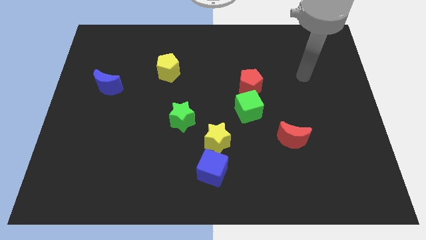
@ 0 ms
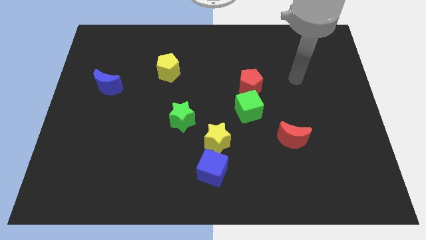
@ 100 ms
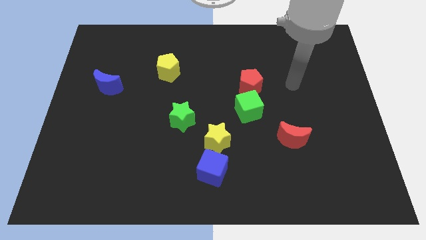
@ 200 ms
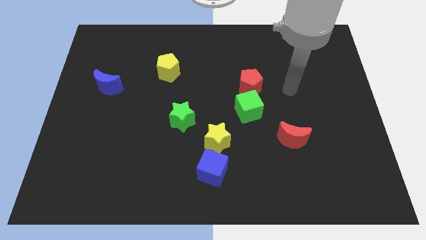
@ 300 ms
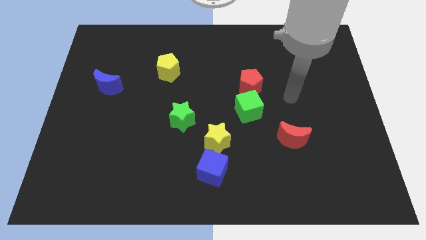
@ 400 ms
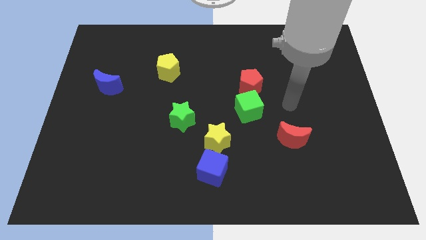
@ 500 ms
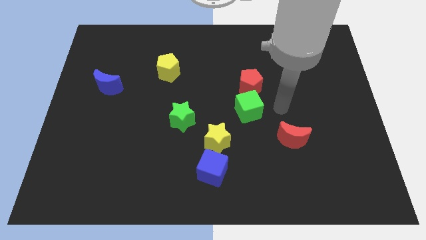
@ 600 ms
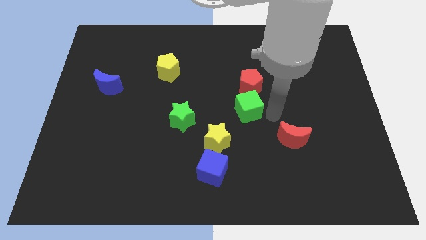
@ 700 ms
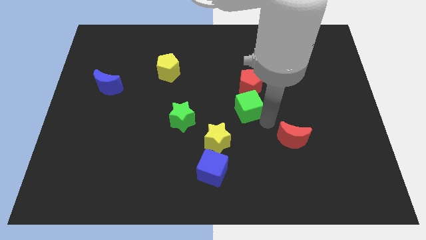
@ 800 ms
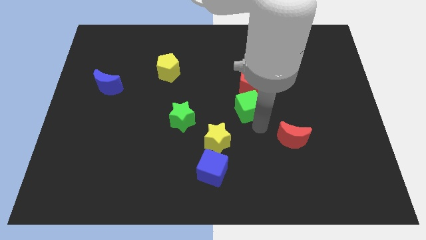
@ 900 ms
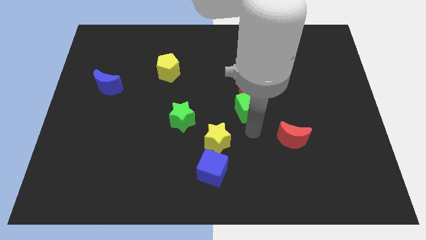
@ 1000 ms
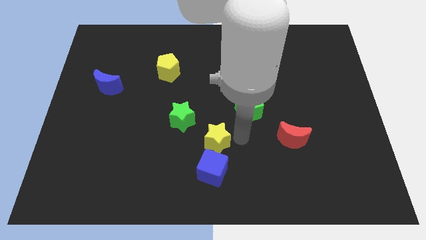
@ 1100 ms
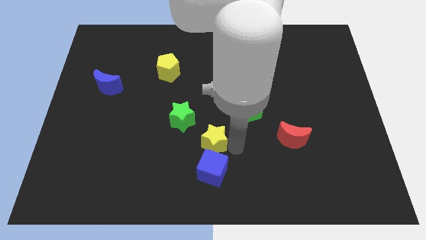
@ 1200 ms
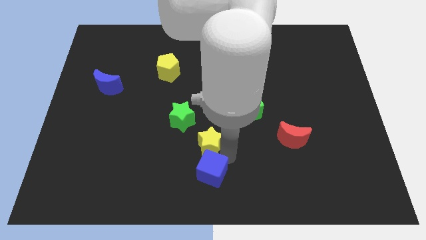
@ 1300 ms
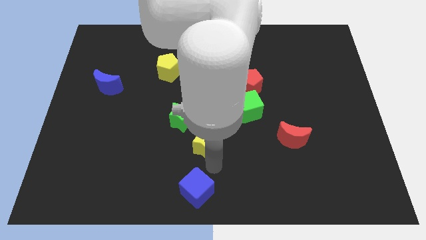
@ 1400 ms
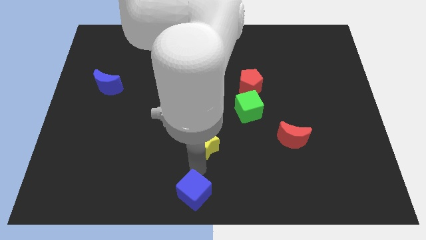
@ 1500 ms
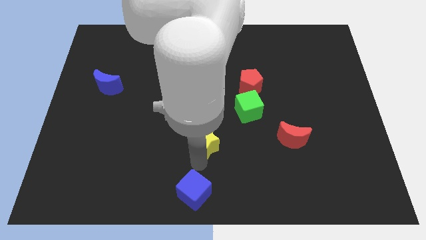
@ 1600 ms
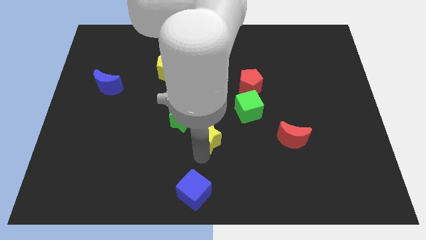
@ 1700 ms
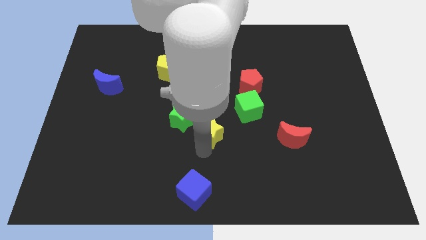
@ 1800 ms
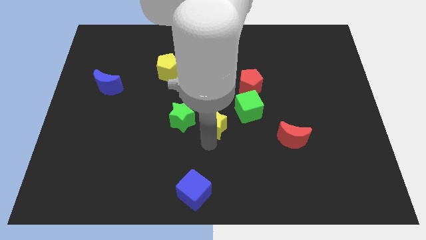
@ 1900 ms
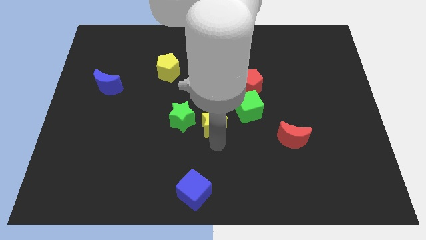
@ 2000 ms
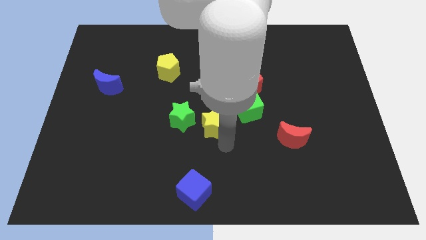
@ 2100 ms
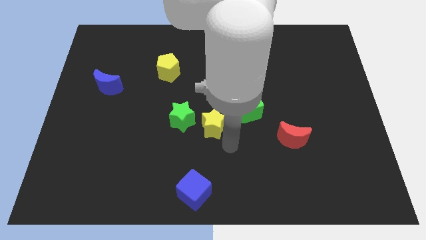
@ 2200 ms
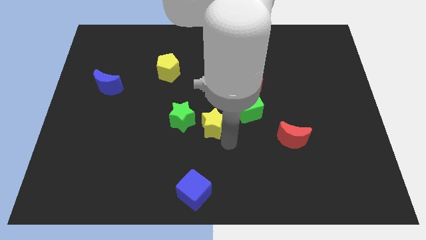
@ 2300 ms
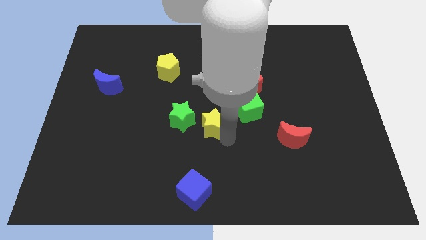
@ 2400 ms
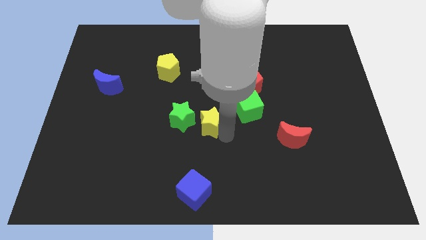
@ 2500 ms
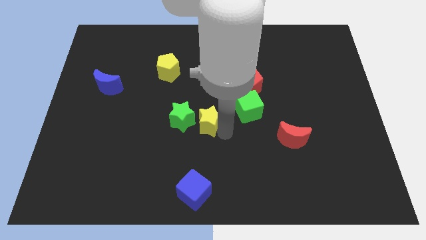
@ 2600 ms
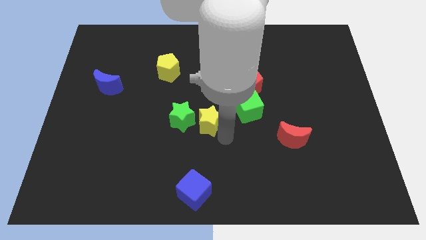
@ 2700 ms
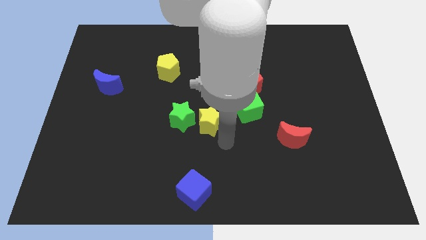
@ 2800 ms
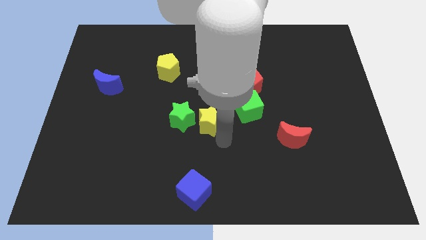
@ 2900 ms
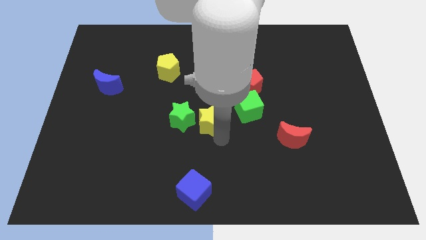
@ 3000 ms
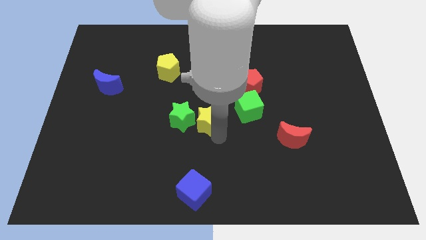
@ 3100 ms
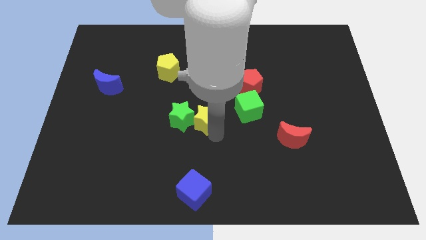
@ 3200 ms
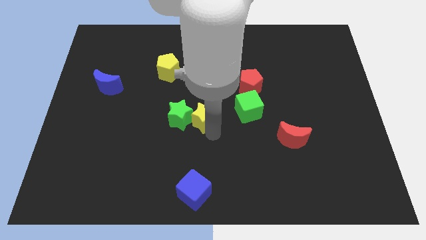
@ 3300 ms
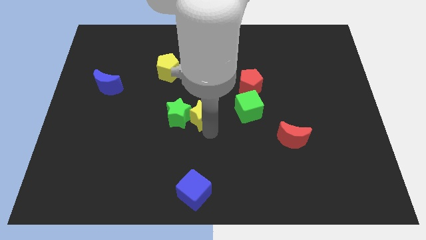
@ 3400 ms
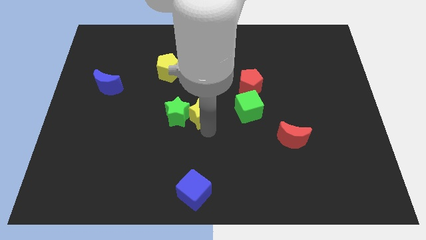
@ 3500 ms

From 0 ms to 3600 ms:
slightly slide the yellow star diagonally upwards and to the left

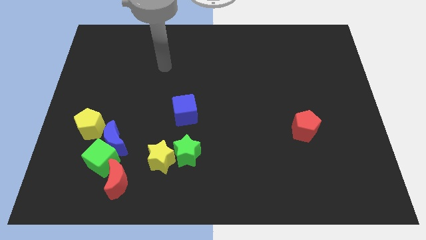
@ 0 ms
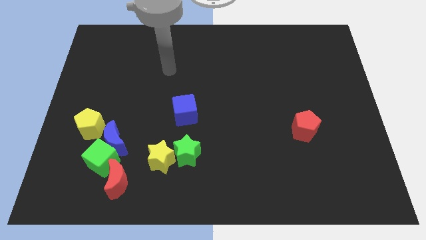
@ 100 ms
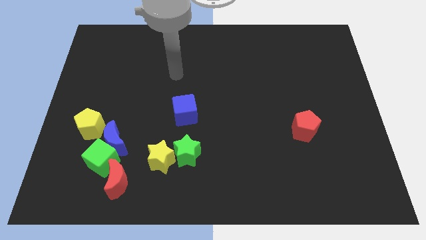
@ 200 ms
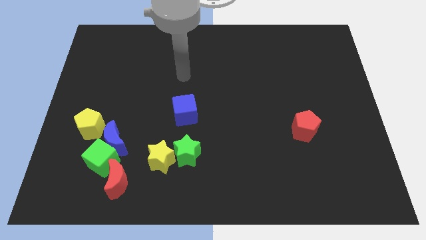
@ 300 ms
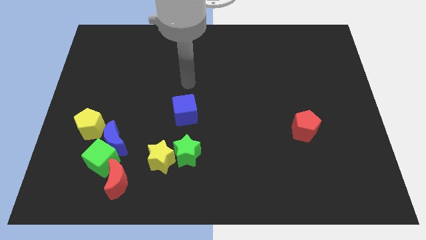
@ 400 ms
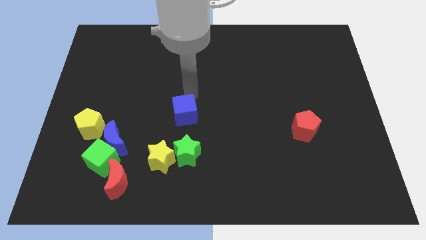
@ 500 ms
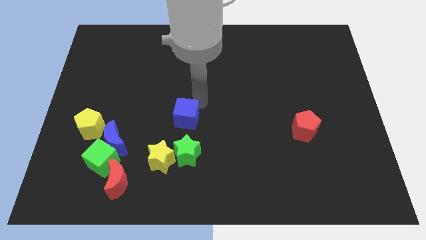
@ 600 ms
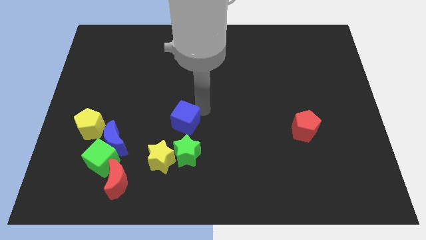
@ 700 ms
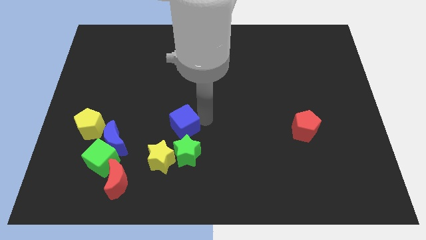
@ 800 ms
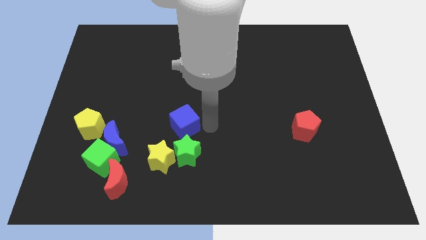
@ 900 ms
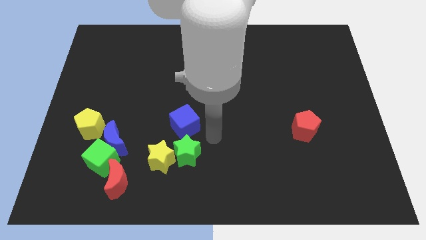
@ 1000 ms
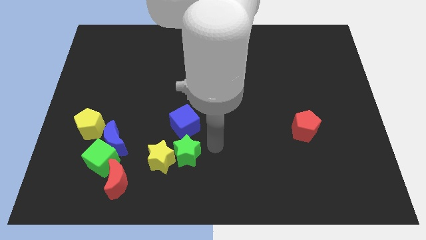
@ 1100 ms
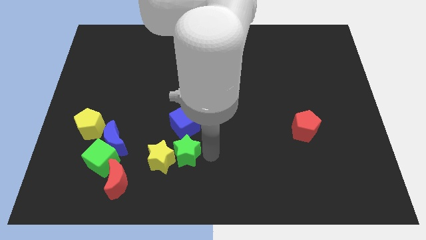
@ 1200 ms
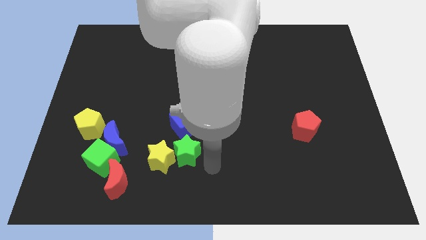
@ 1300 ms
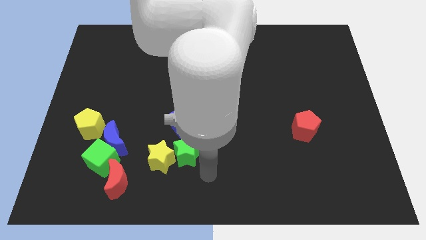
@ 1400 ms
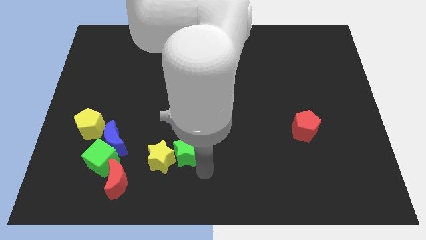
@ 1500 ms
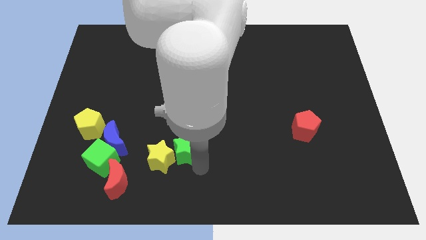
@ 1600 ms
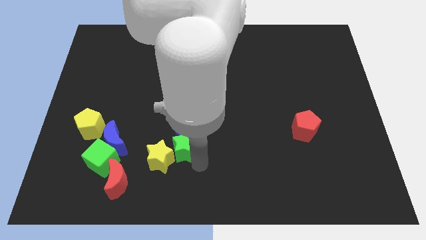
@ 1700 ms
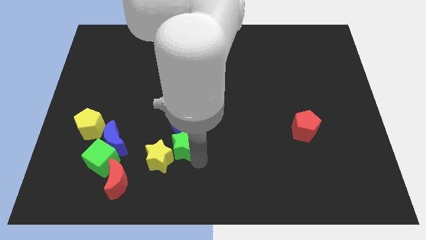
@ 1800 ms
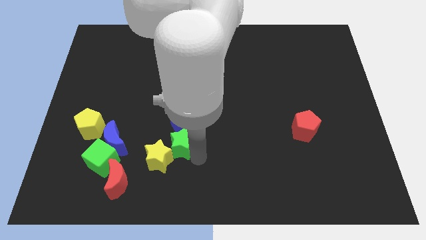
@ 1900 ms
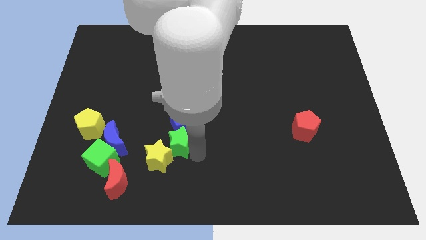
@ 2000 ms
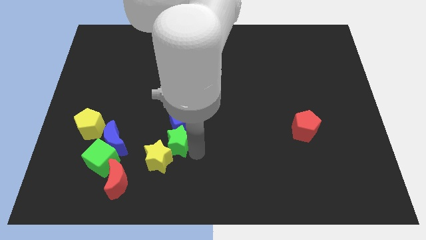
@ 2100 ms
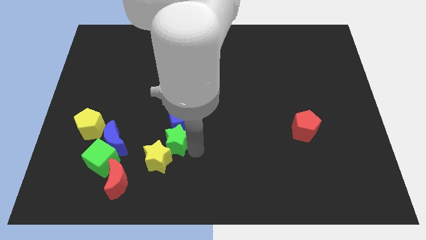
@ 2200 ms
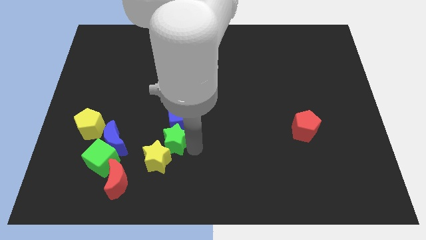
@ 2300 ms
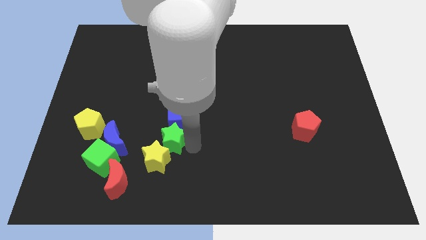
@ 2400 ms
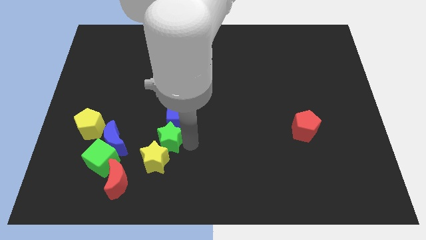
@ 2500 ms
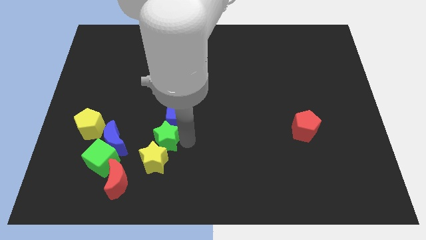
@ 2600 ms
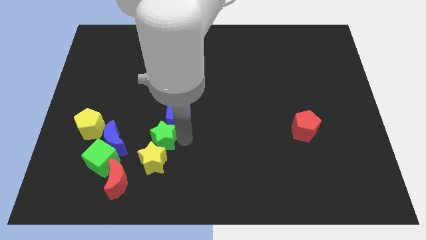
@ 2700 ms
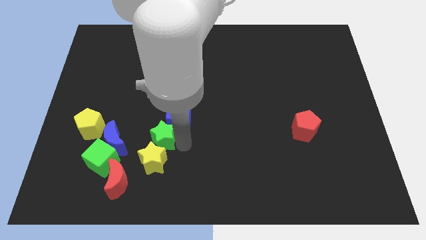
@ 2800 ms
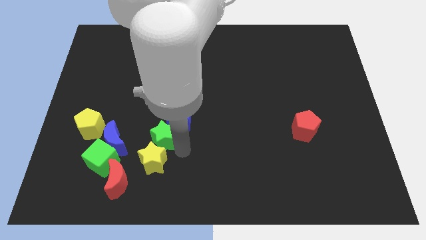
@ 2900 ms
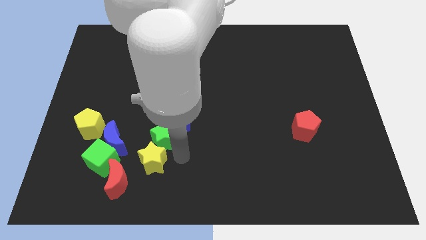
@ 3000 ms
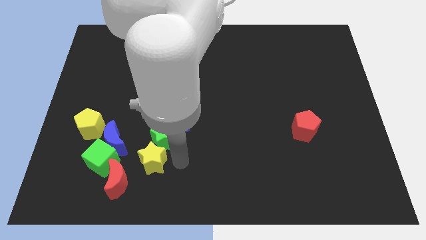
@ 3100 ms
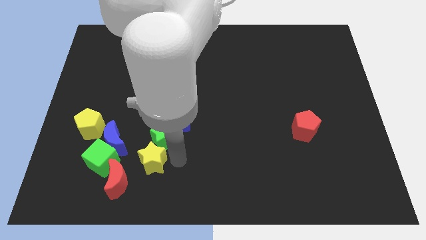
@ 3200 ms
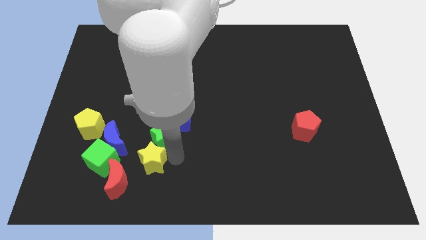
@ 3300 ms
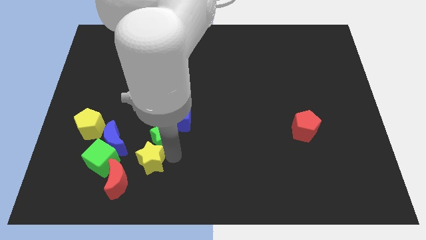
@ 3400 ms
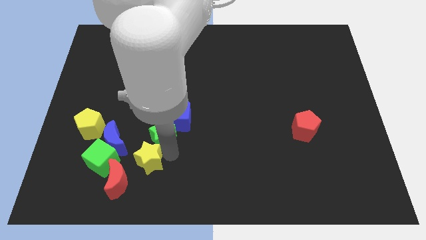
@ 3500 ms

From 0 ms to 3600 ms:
slightly move the green star diagonally upwards and to the left

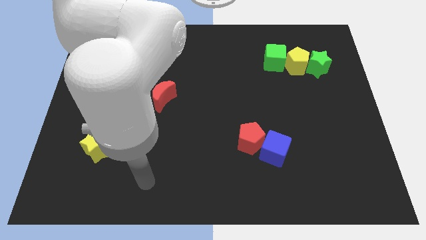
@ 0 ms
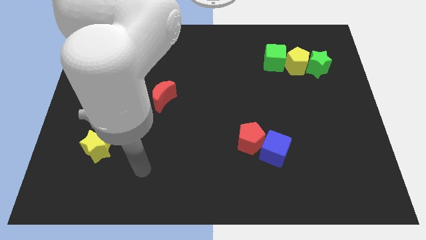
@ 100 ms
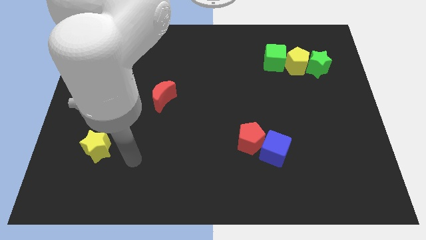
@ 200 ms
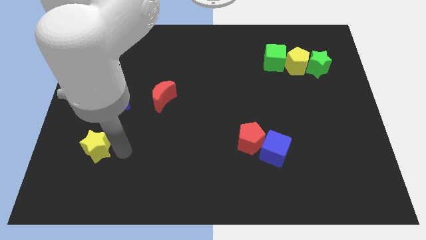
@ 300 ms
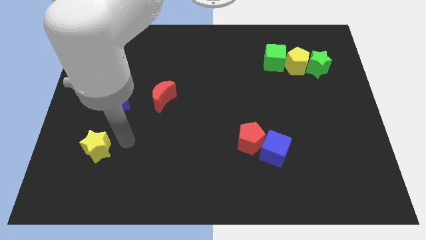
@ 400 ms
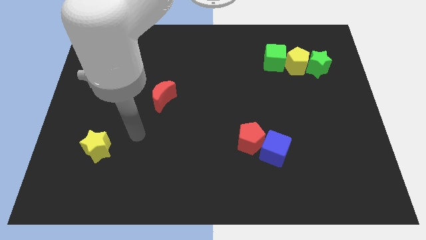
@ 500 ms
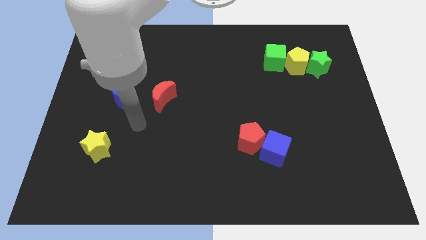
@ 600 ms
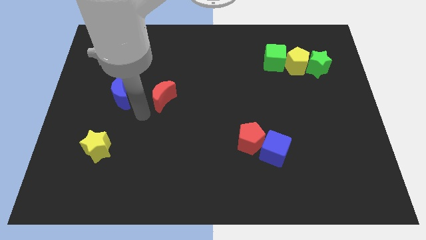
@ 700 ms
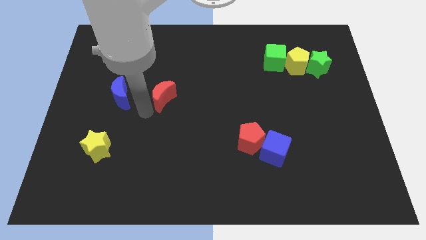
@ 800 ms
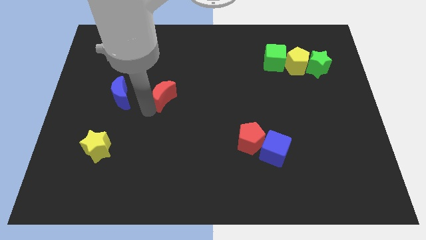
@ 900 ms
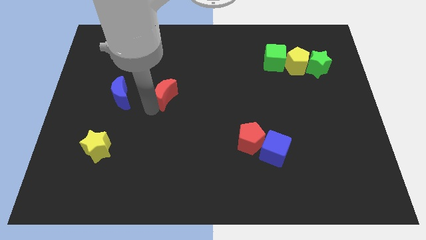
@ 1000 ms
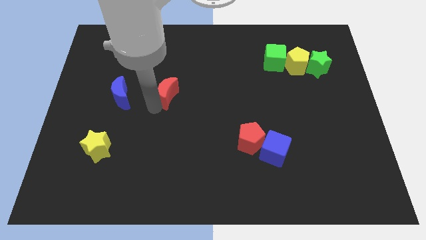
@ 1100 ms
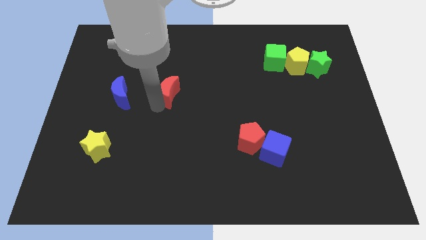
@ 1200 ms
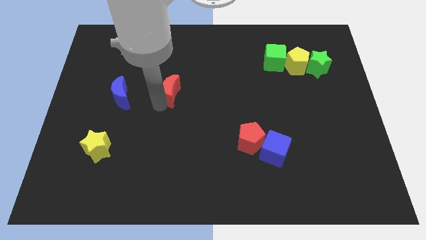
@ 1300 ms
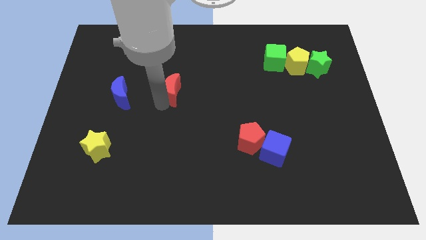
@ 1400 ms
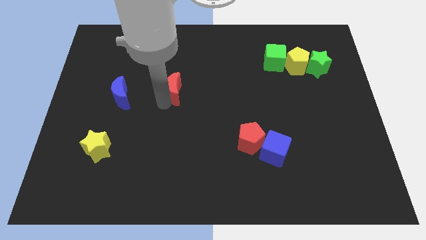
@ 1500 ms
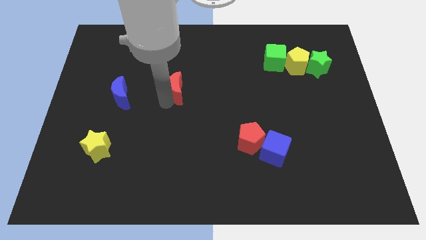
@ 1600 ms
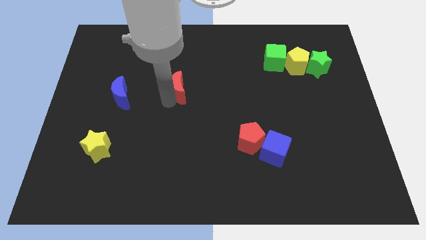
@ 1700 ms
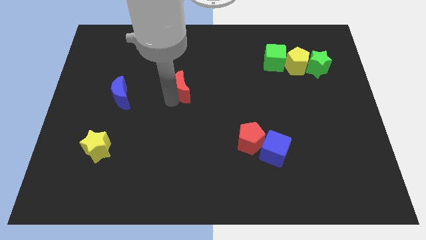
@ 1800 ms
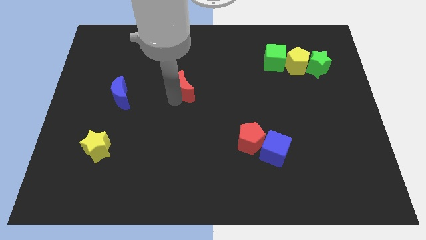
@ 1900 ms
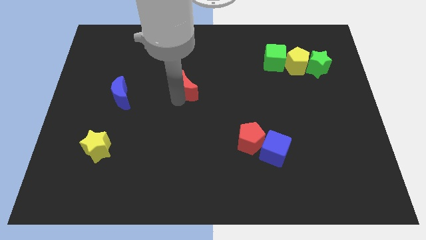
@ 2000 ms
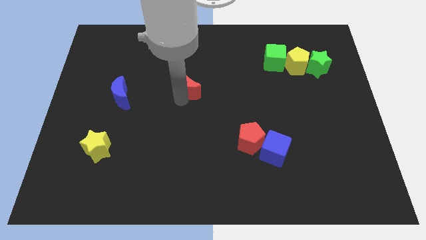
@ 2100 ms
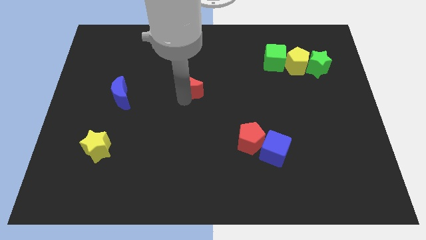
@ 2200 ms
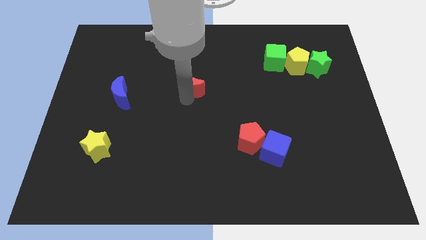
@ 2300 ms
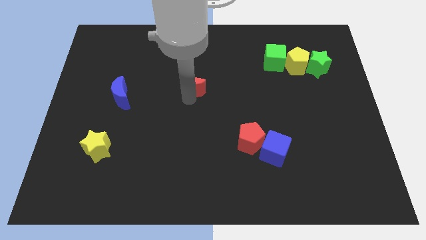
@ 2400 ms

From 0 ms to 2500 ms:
slightly push the red moon upwards and then to the right
